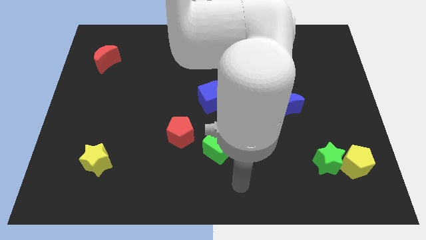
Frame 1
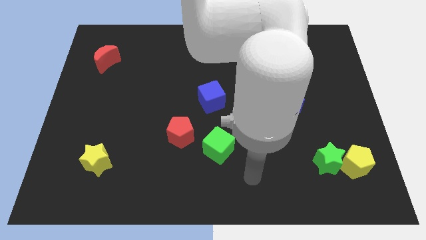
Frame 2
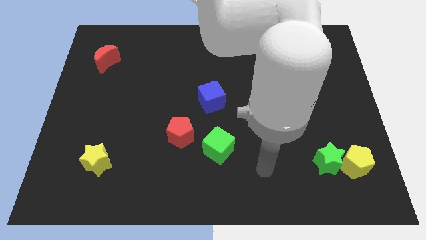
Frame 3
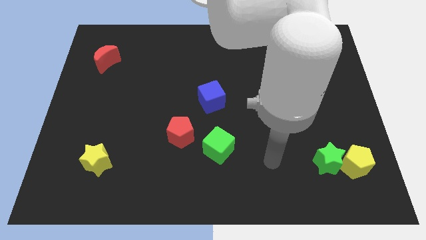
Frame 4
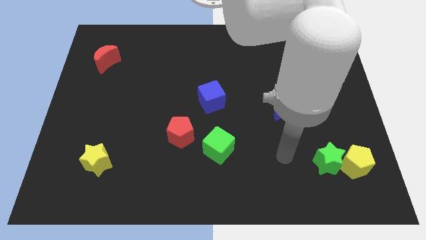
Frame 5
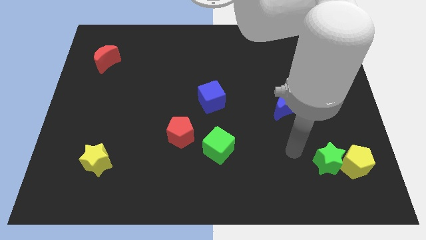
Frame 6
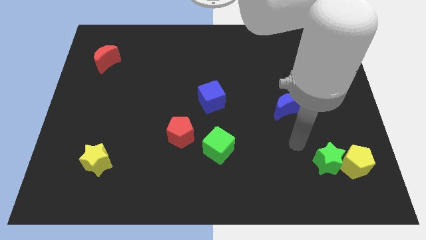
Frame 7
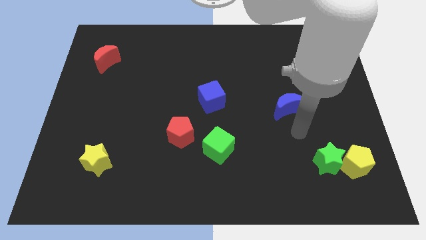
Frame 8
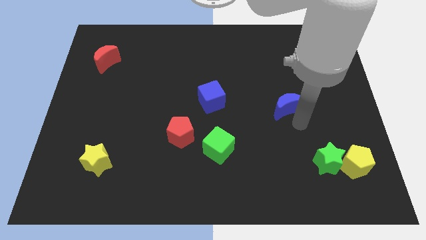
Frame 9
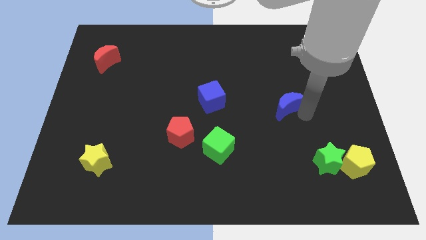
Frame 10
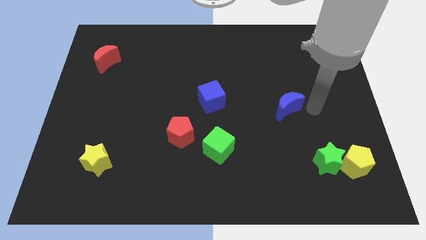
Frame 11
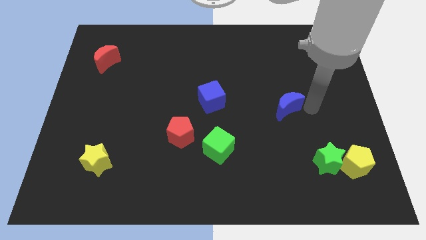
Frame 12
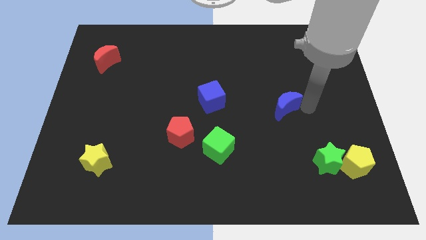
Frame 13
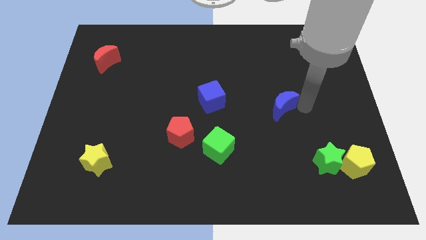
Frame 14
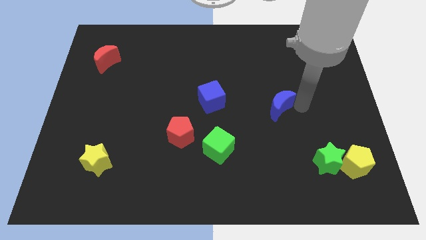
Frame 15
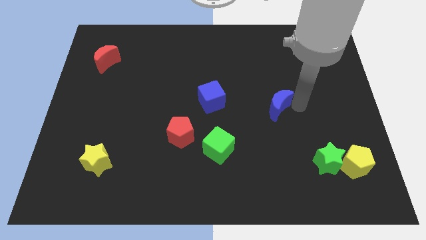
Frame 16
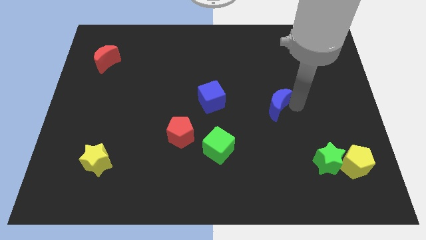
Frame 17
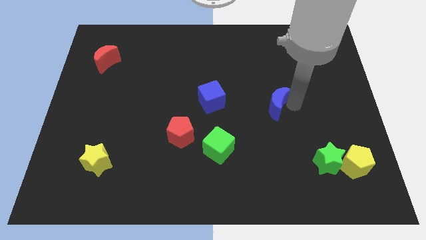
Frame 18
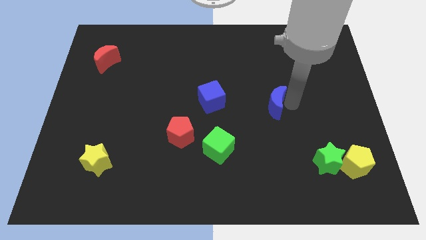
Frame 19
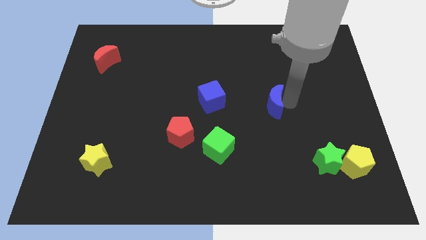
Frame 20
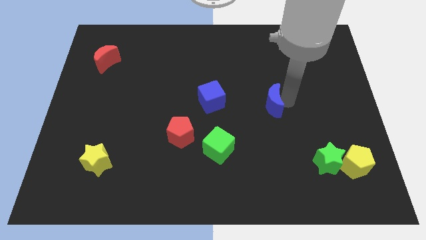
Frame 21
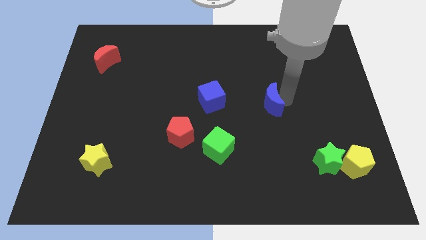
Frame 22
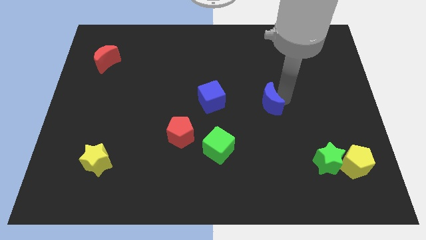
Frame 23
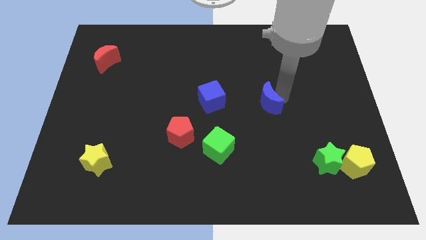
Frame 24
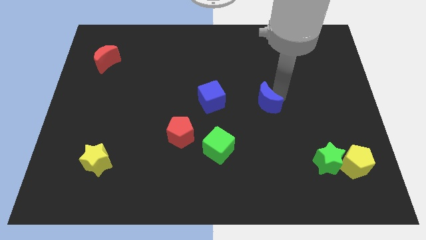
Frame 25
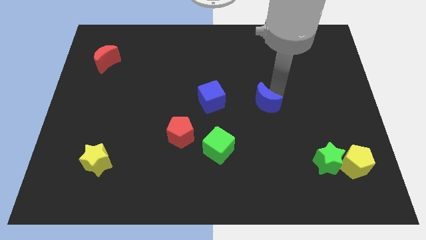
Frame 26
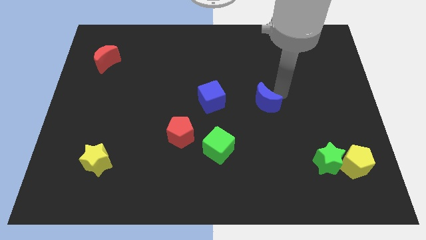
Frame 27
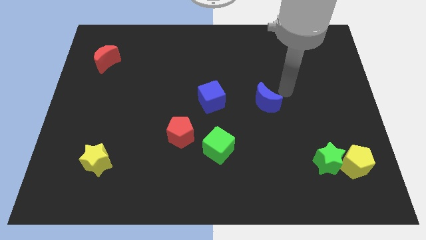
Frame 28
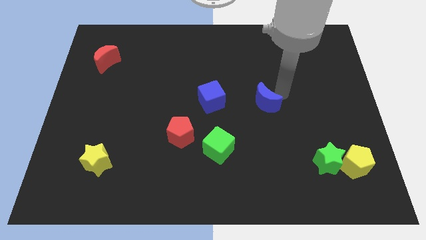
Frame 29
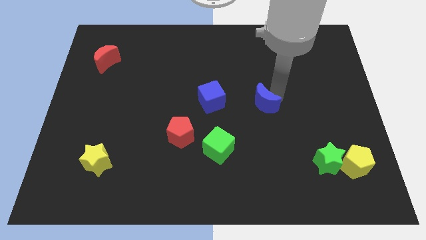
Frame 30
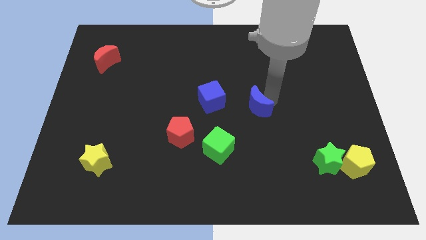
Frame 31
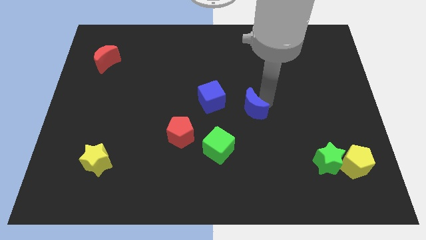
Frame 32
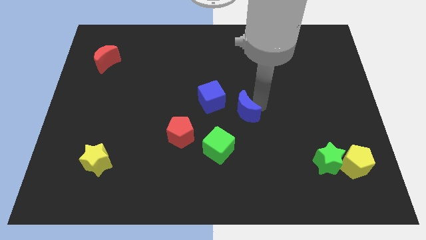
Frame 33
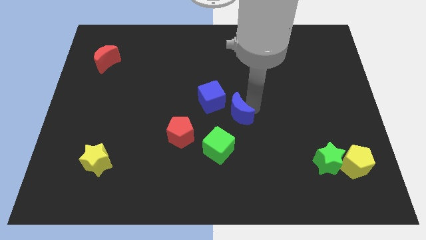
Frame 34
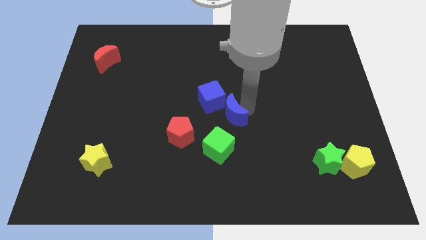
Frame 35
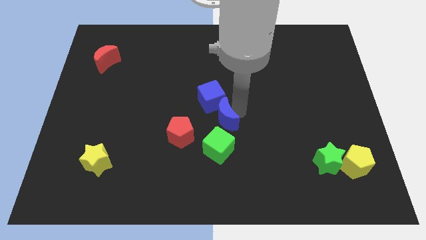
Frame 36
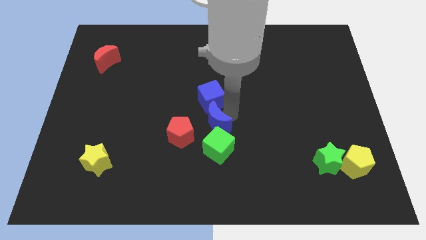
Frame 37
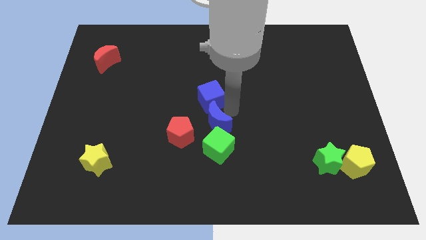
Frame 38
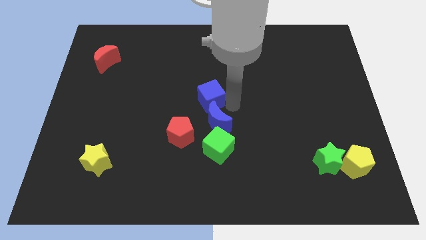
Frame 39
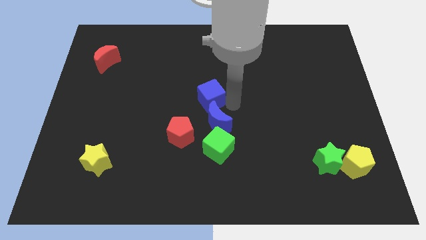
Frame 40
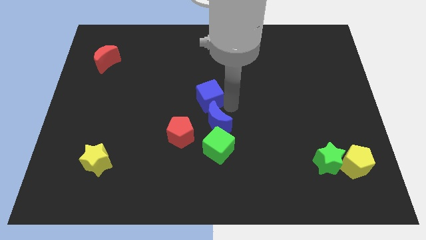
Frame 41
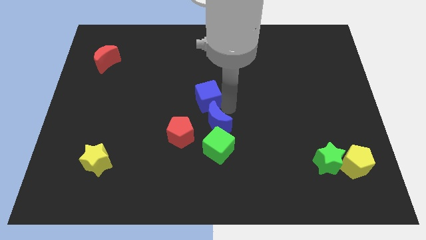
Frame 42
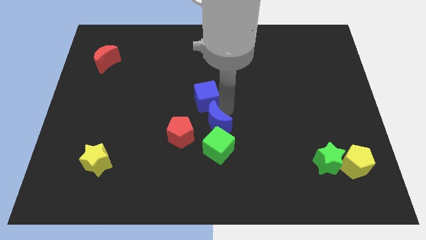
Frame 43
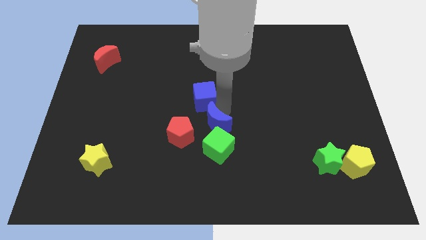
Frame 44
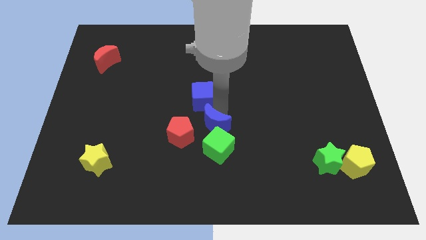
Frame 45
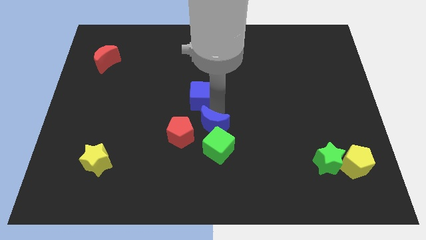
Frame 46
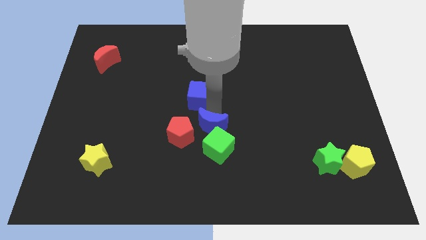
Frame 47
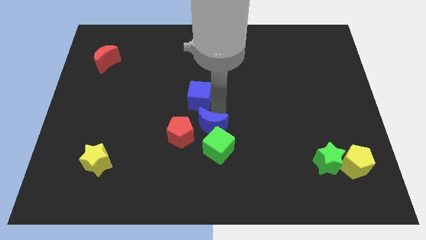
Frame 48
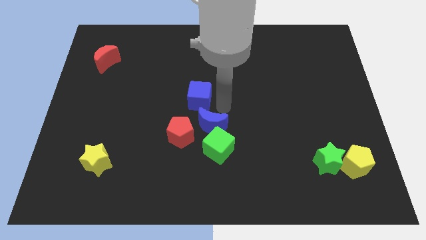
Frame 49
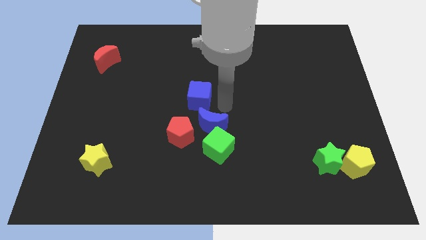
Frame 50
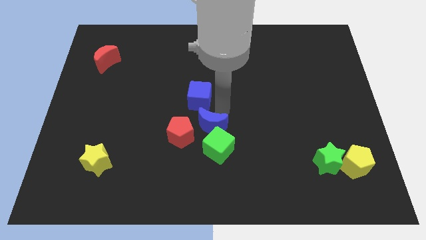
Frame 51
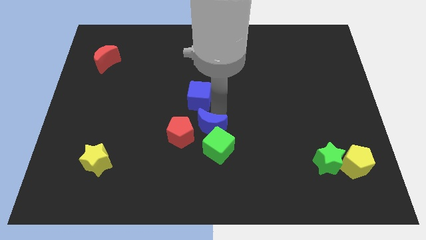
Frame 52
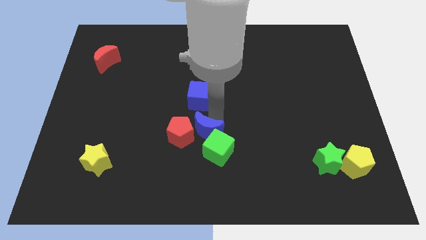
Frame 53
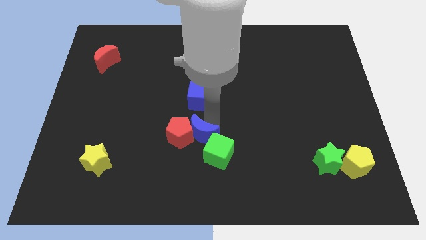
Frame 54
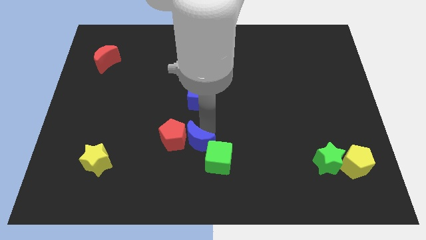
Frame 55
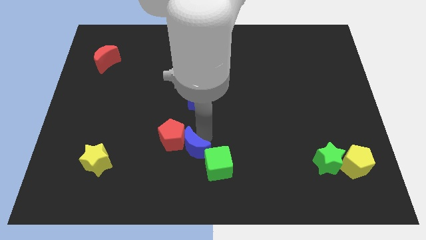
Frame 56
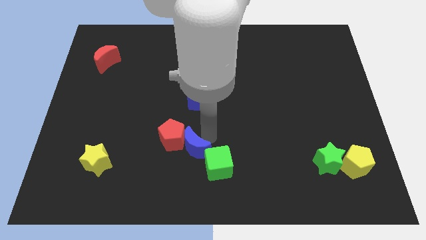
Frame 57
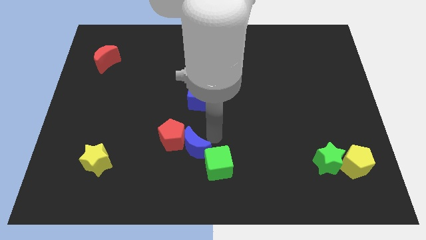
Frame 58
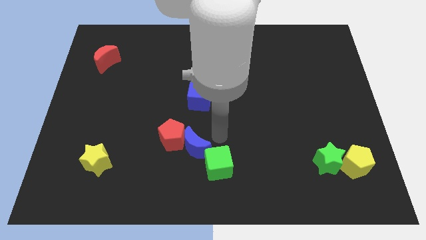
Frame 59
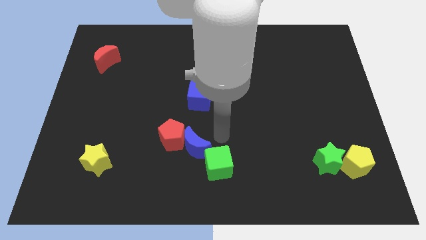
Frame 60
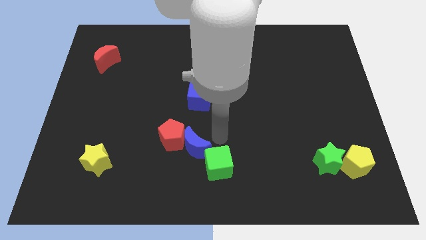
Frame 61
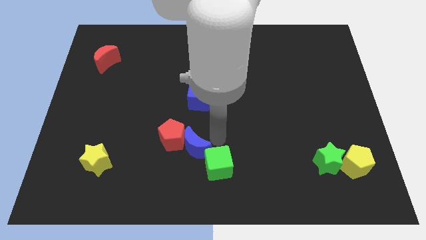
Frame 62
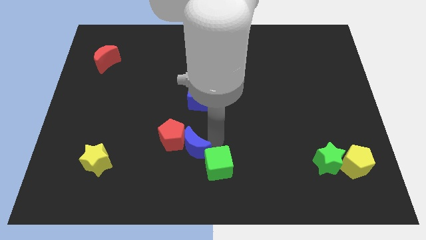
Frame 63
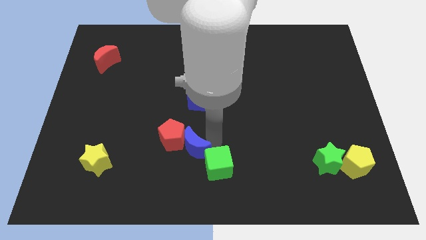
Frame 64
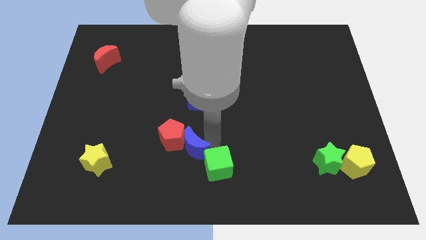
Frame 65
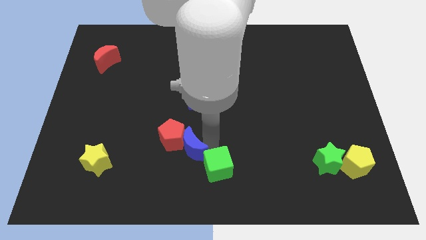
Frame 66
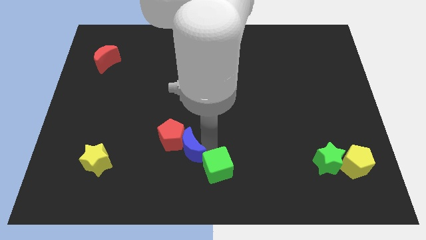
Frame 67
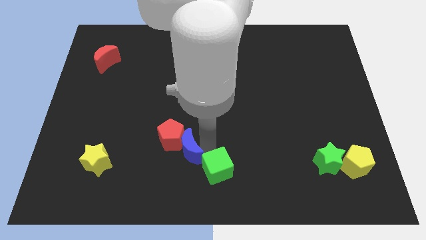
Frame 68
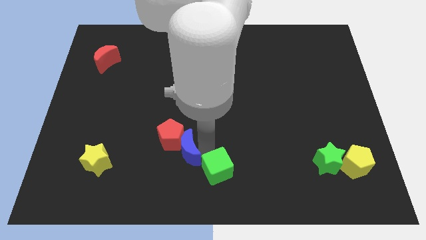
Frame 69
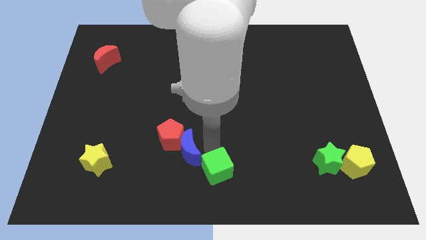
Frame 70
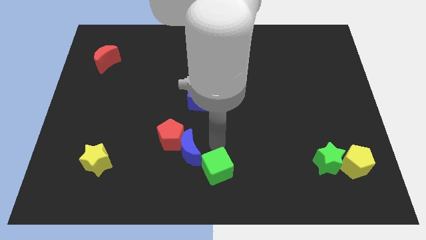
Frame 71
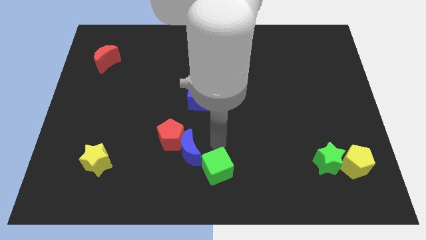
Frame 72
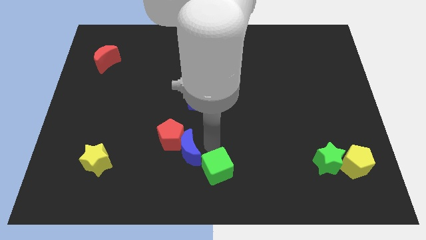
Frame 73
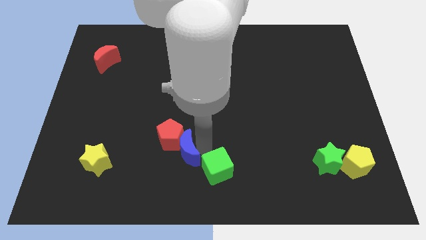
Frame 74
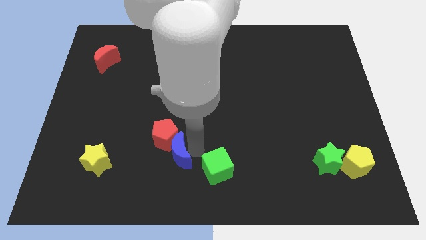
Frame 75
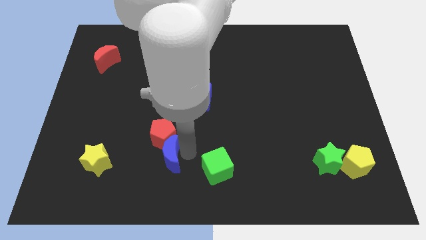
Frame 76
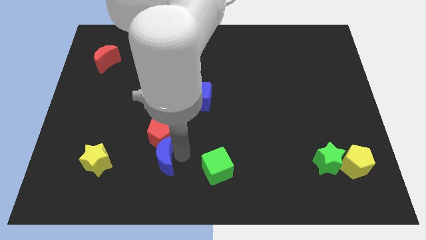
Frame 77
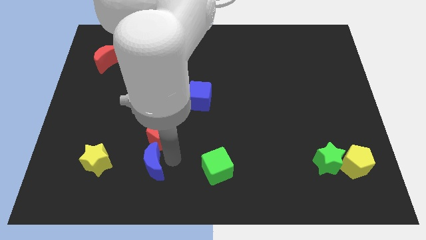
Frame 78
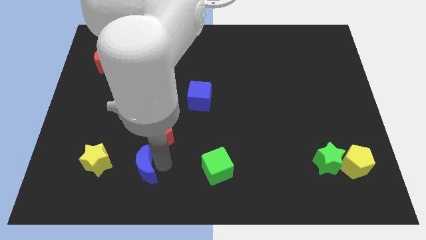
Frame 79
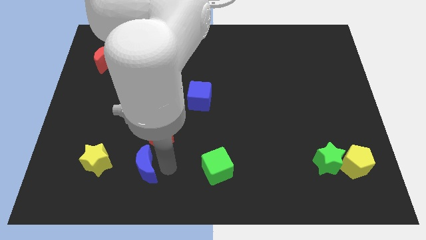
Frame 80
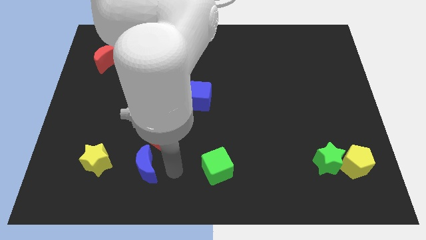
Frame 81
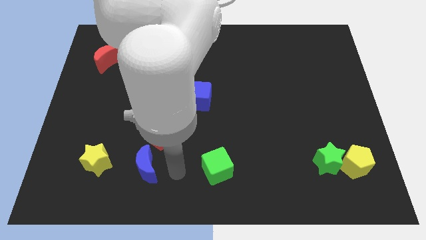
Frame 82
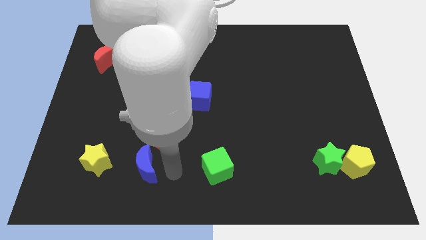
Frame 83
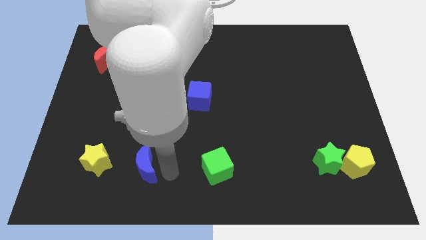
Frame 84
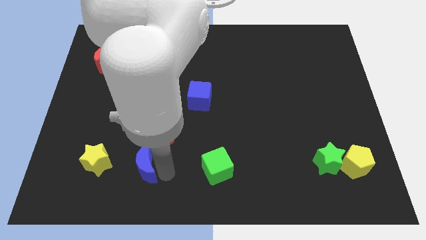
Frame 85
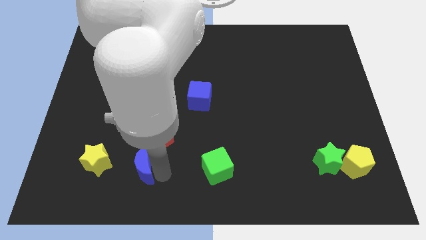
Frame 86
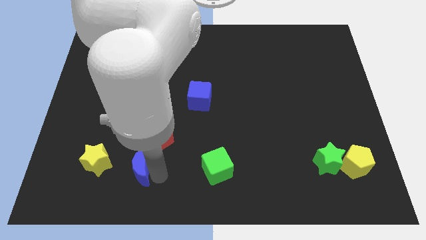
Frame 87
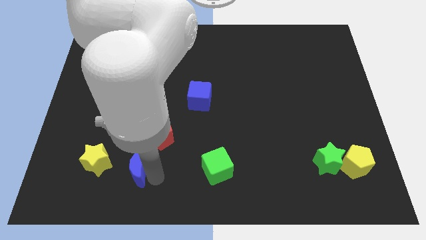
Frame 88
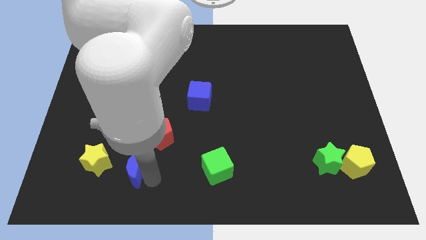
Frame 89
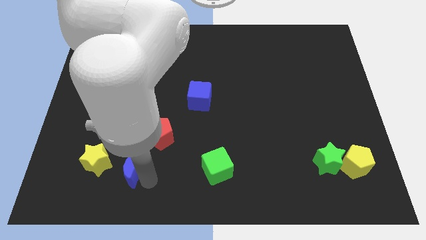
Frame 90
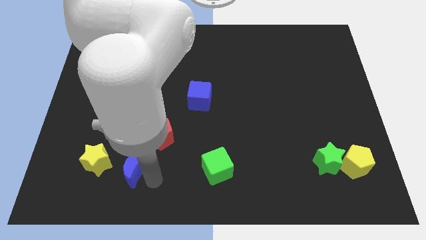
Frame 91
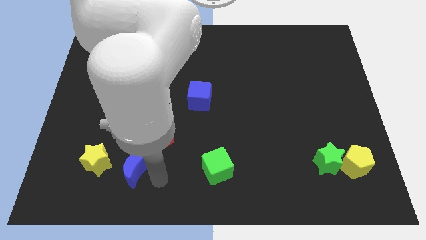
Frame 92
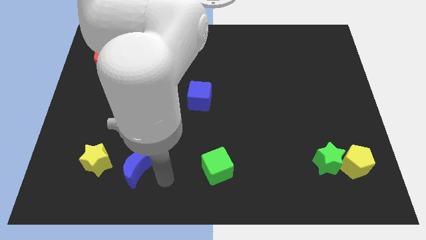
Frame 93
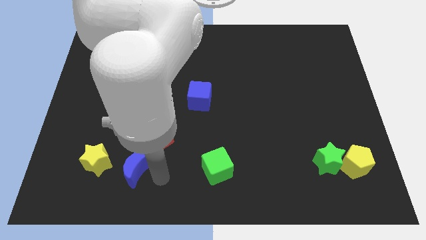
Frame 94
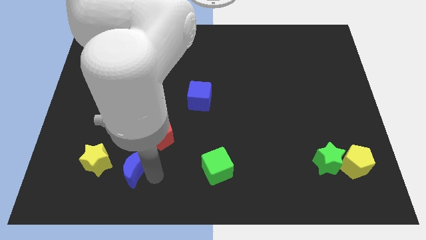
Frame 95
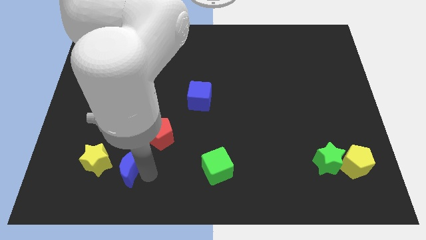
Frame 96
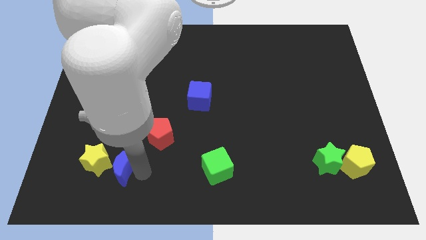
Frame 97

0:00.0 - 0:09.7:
slide the blue moon towards the yellow star
